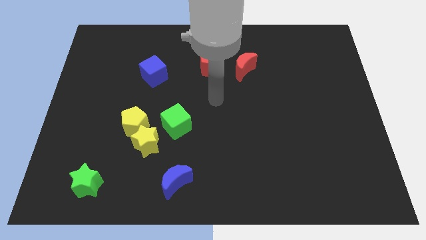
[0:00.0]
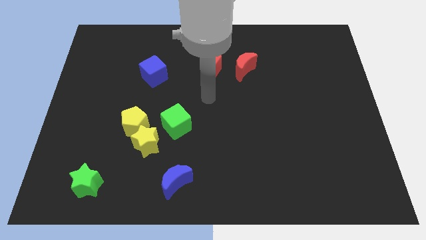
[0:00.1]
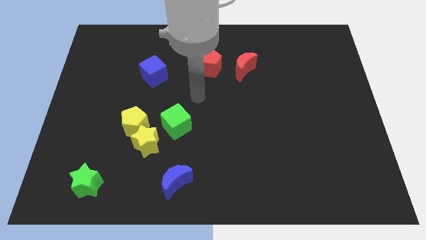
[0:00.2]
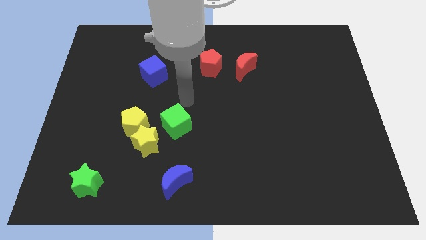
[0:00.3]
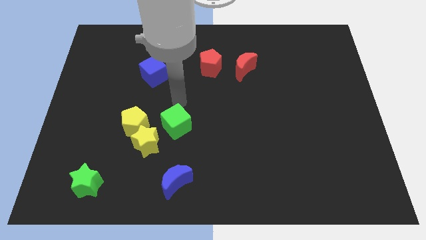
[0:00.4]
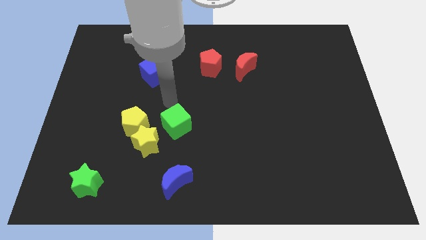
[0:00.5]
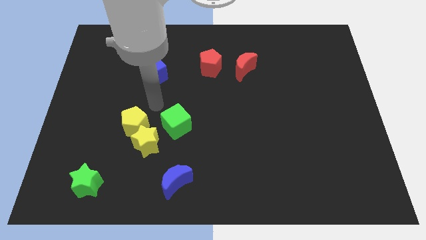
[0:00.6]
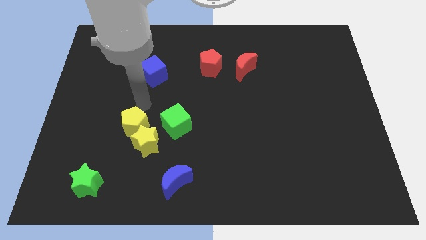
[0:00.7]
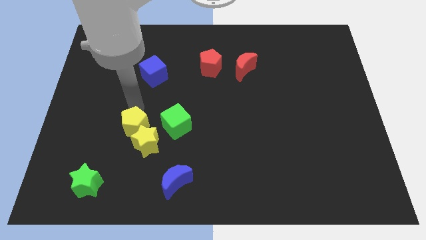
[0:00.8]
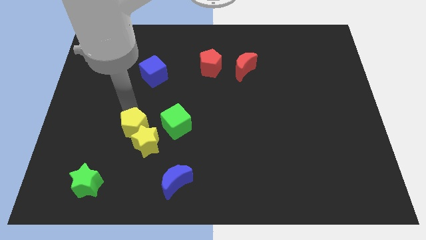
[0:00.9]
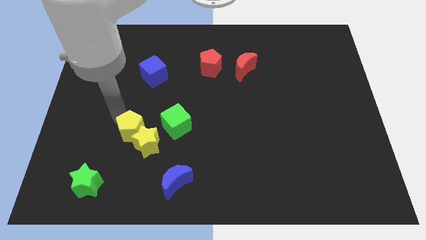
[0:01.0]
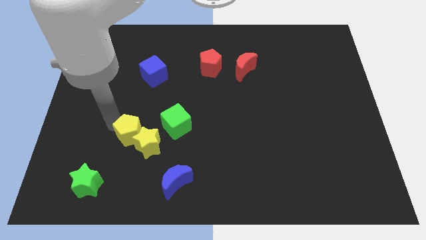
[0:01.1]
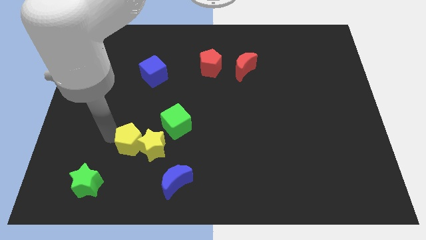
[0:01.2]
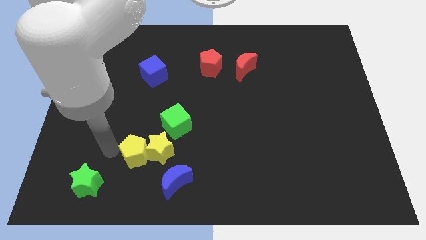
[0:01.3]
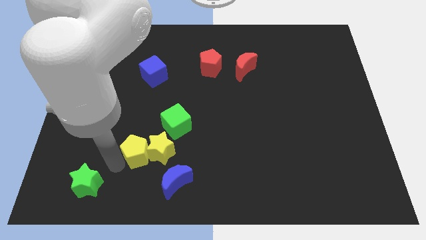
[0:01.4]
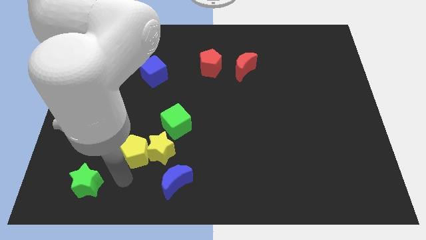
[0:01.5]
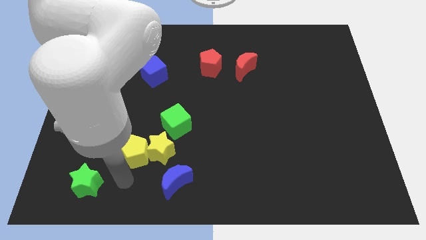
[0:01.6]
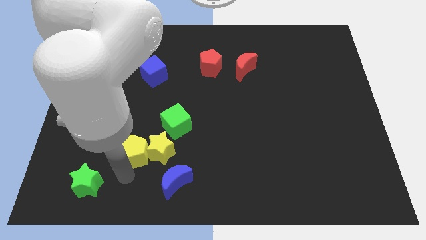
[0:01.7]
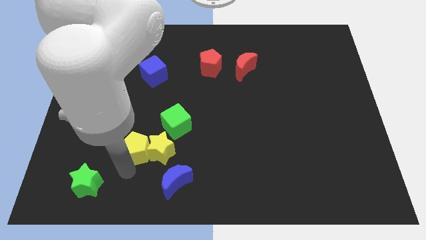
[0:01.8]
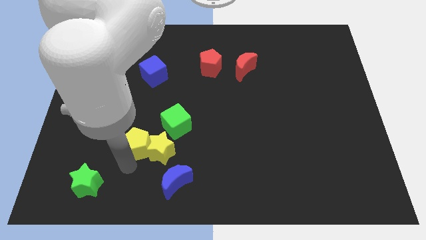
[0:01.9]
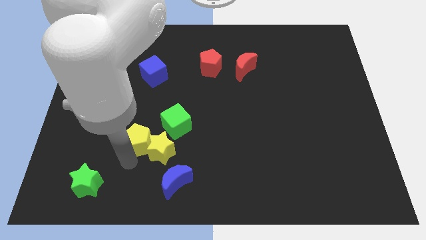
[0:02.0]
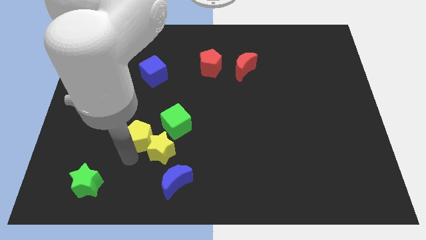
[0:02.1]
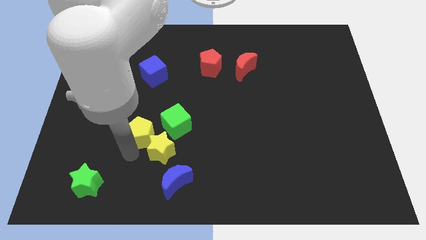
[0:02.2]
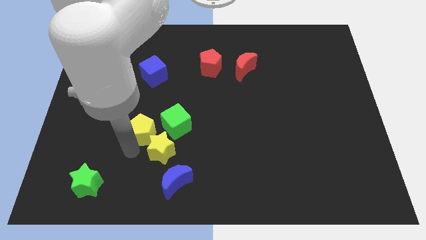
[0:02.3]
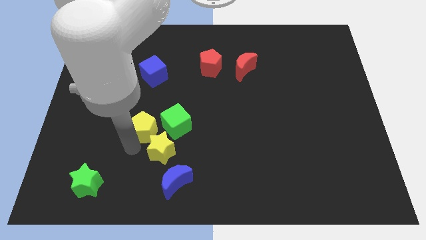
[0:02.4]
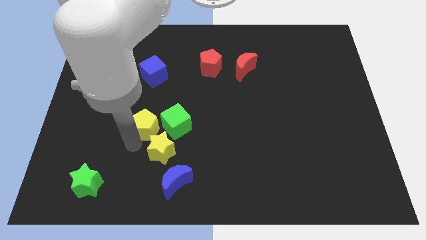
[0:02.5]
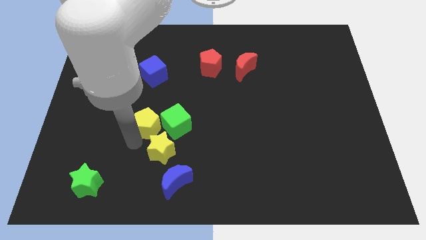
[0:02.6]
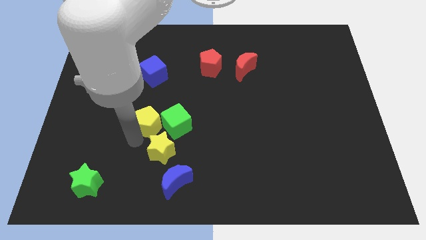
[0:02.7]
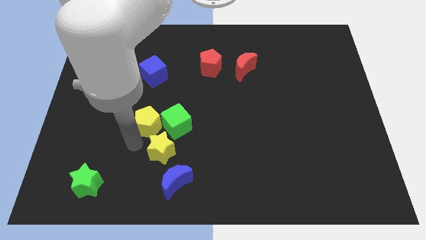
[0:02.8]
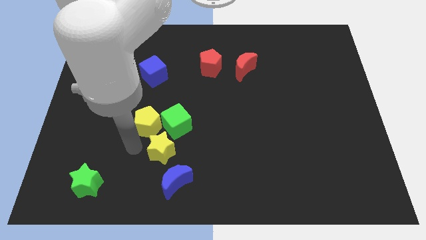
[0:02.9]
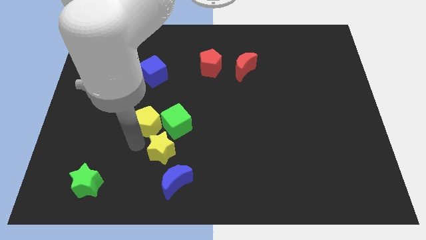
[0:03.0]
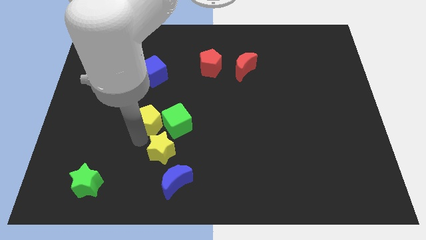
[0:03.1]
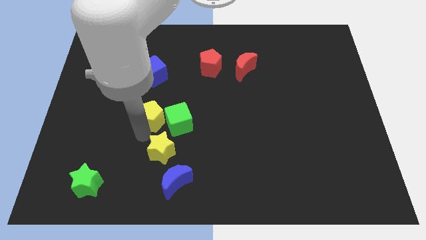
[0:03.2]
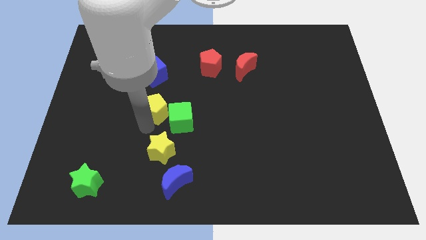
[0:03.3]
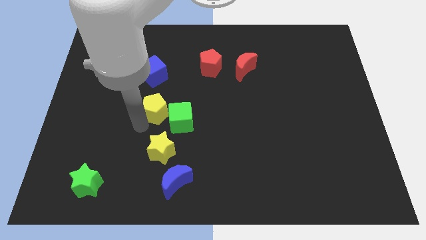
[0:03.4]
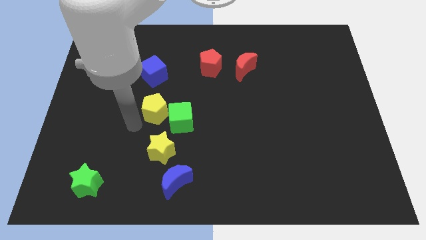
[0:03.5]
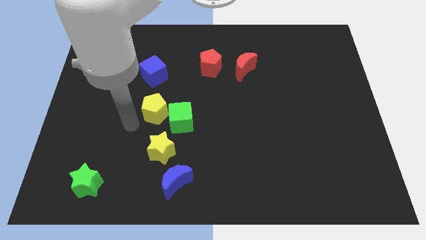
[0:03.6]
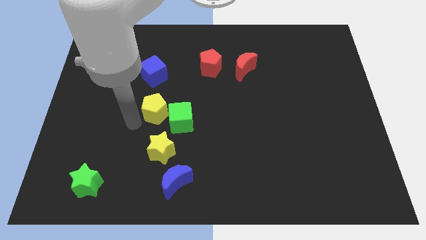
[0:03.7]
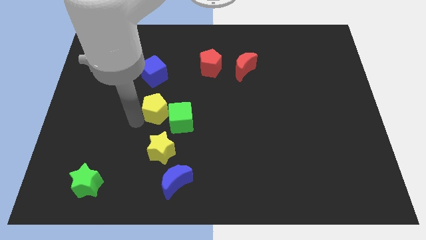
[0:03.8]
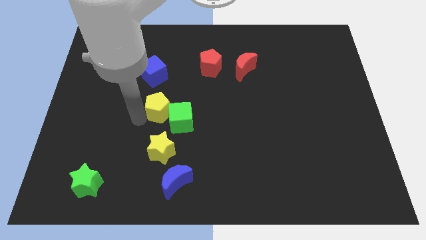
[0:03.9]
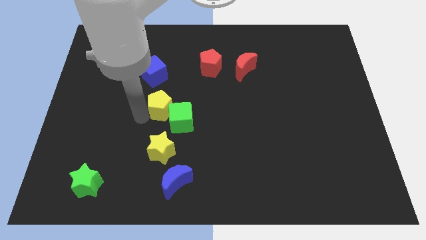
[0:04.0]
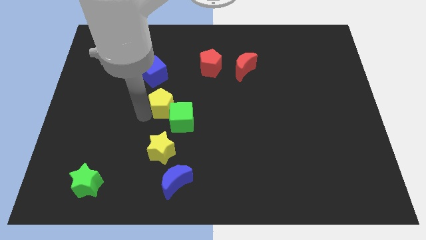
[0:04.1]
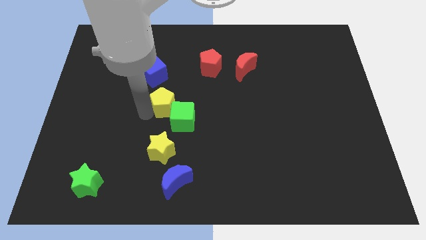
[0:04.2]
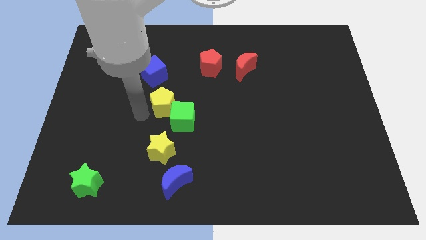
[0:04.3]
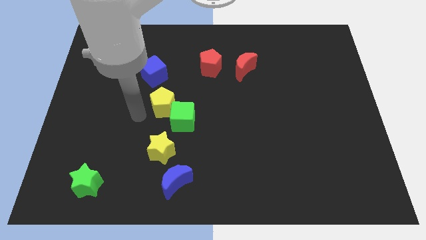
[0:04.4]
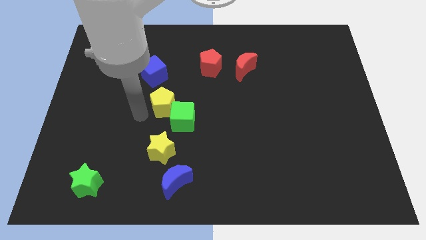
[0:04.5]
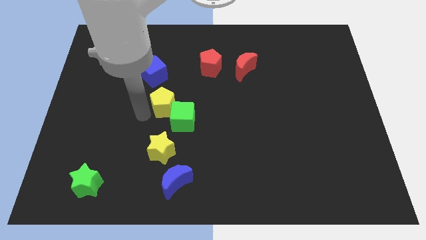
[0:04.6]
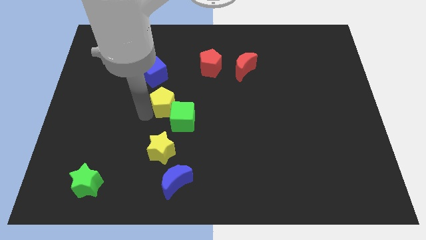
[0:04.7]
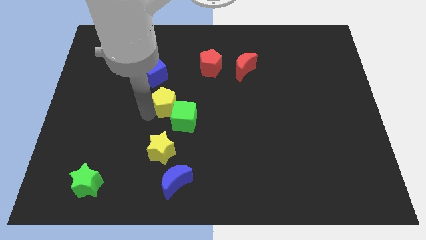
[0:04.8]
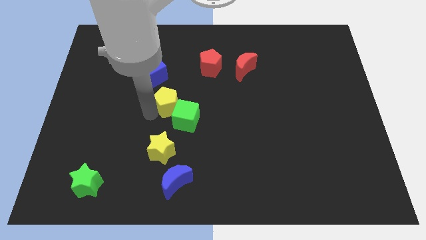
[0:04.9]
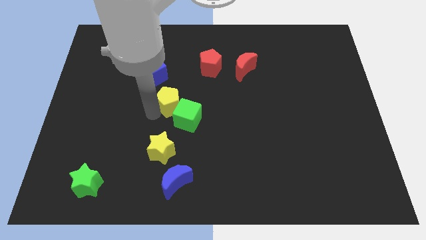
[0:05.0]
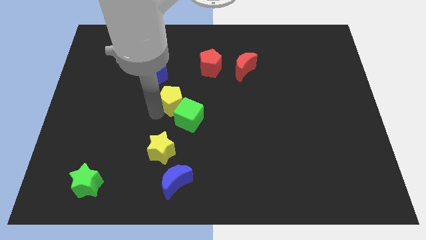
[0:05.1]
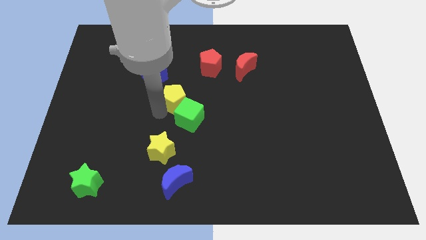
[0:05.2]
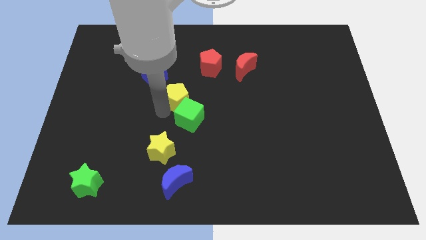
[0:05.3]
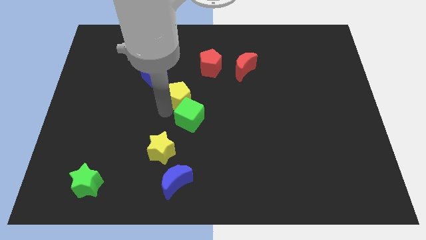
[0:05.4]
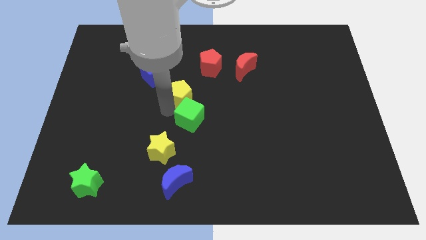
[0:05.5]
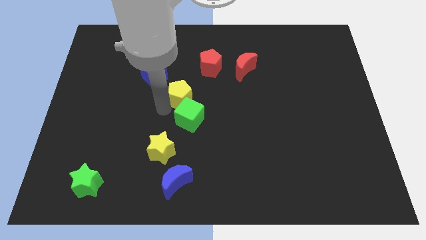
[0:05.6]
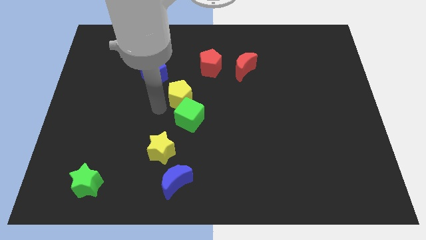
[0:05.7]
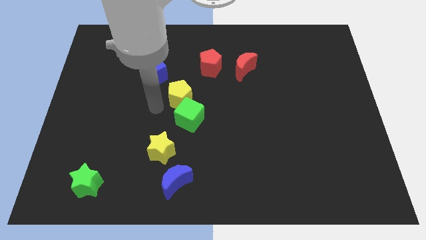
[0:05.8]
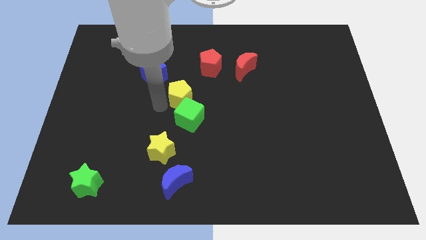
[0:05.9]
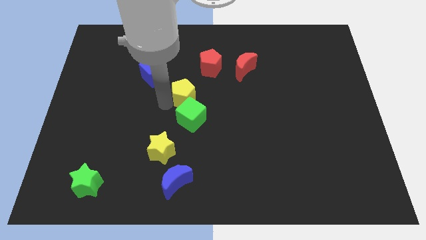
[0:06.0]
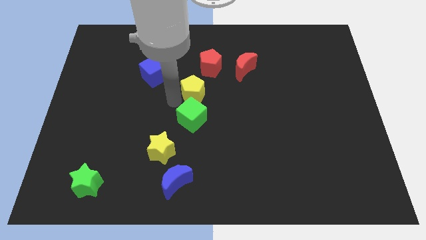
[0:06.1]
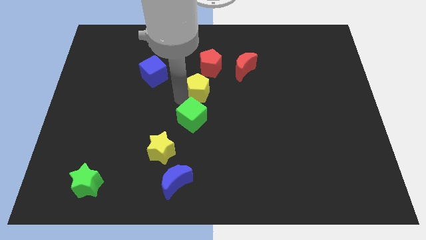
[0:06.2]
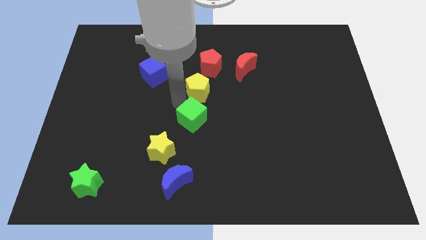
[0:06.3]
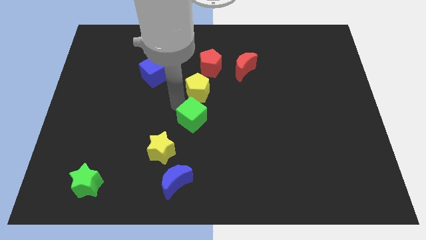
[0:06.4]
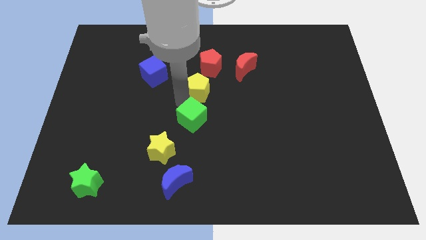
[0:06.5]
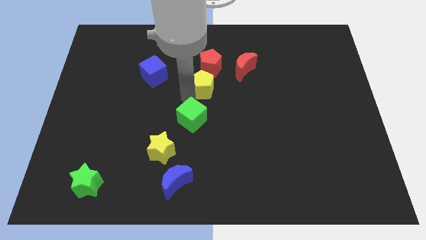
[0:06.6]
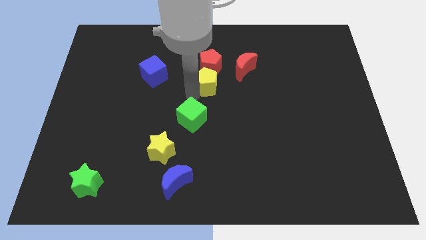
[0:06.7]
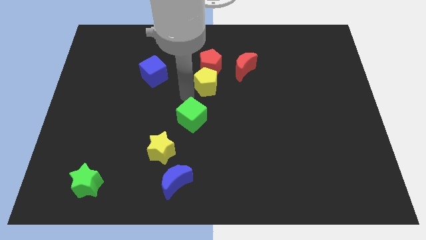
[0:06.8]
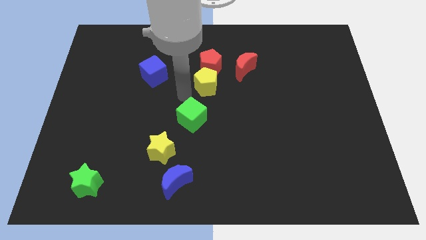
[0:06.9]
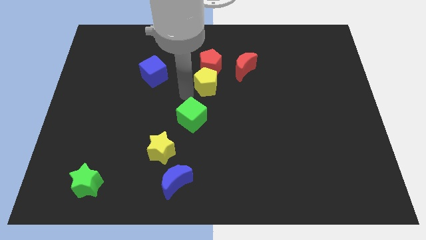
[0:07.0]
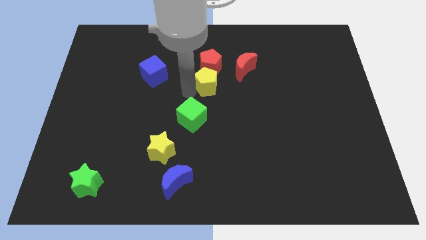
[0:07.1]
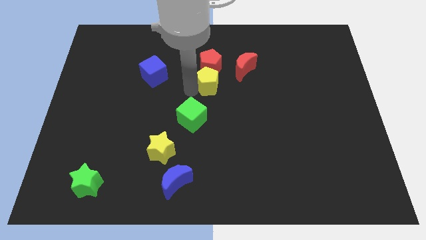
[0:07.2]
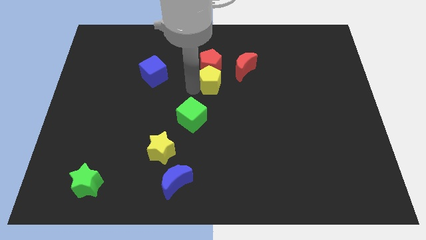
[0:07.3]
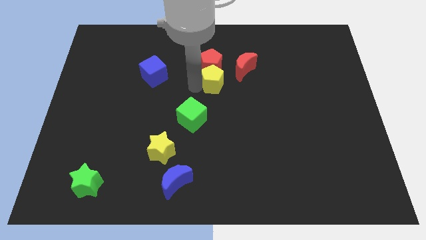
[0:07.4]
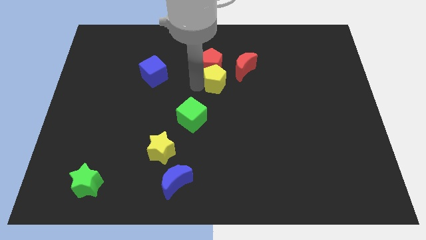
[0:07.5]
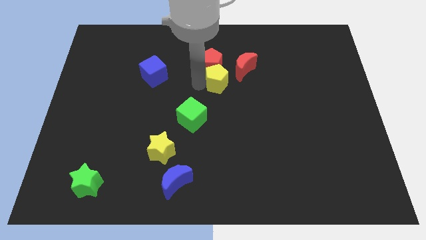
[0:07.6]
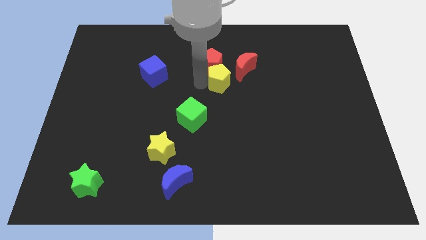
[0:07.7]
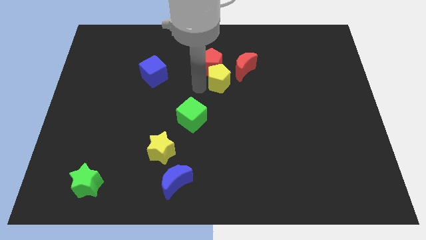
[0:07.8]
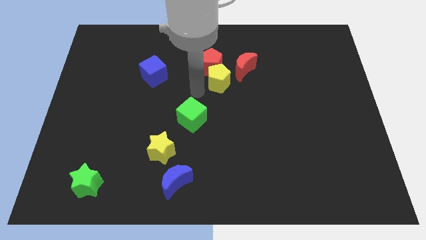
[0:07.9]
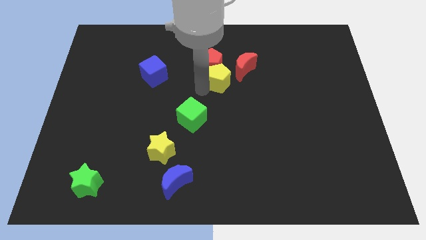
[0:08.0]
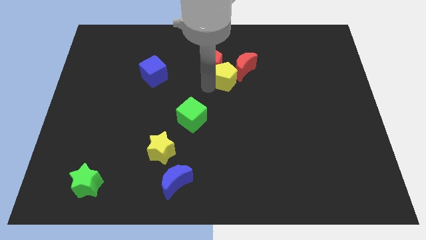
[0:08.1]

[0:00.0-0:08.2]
push the yellow pentagon to the red moon
